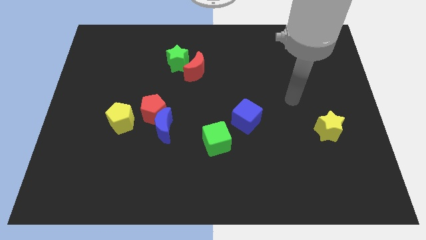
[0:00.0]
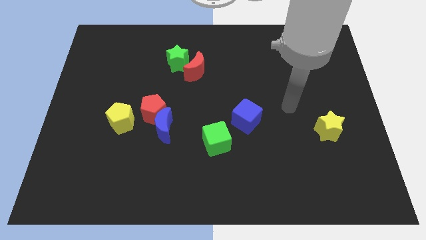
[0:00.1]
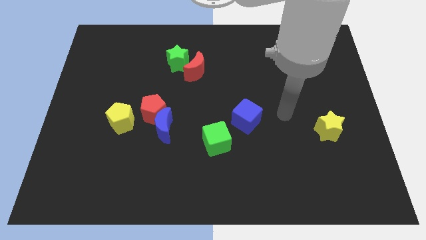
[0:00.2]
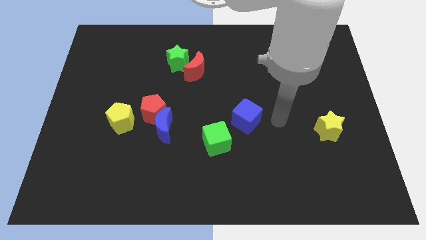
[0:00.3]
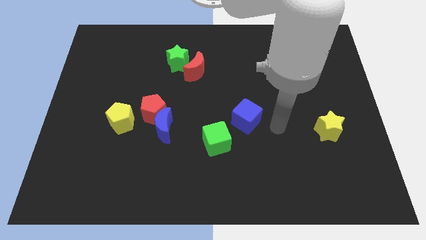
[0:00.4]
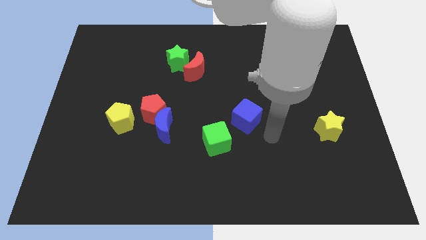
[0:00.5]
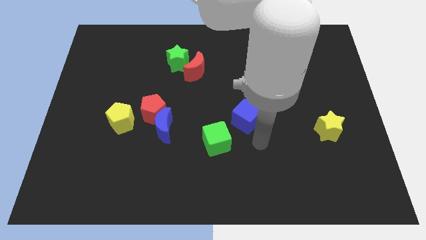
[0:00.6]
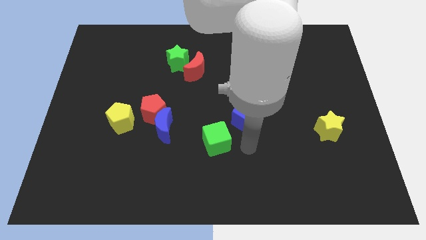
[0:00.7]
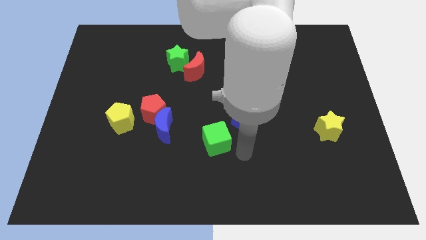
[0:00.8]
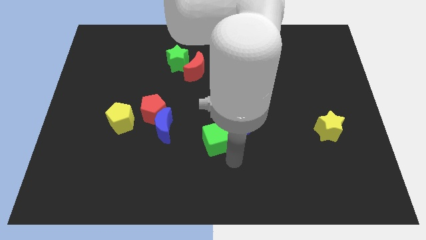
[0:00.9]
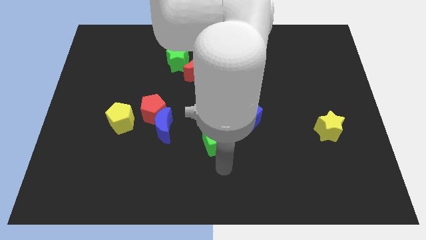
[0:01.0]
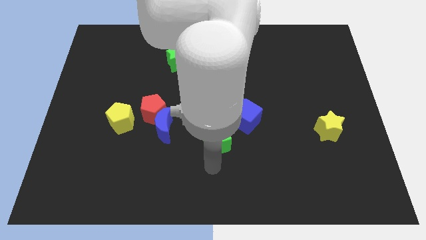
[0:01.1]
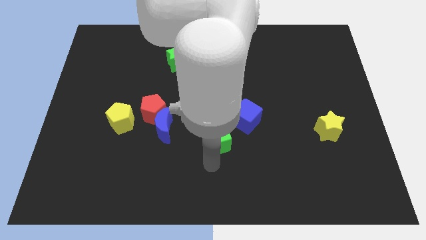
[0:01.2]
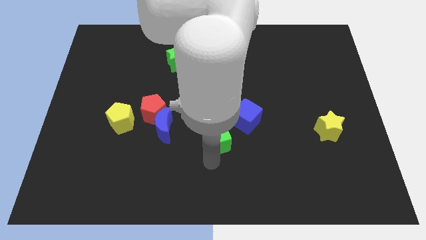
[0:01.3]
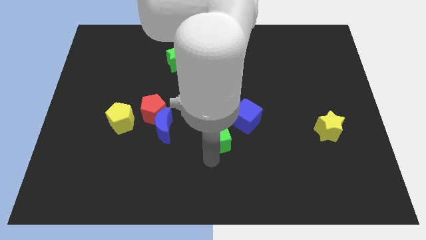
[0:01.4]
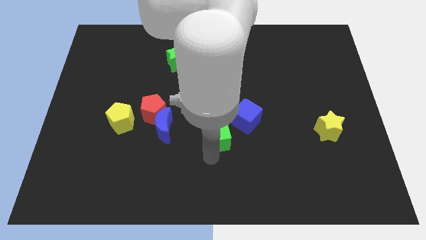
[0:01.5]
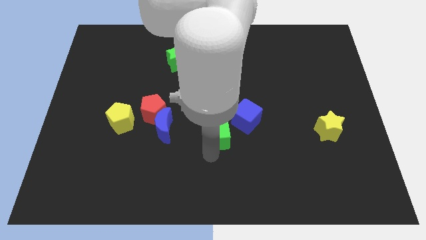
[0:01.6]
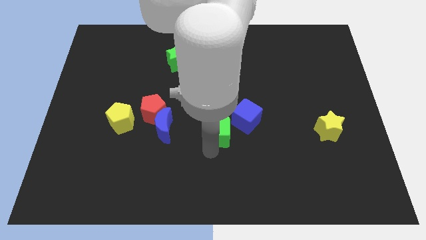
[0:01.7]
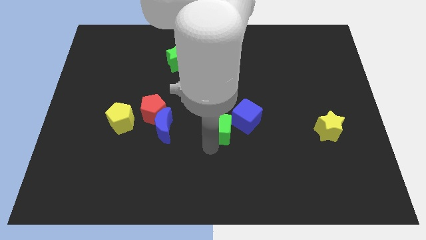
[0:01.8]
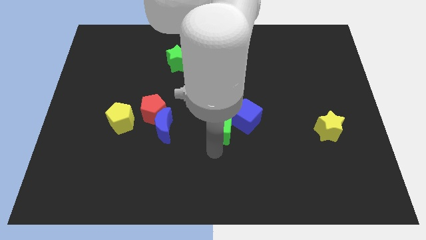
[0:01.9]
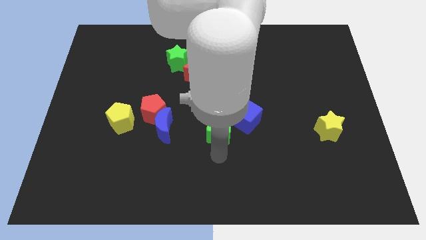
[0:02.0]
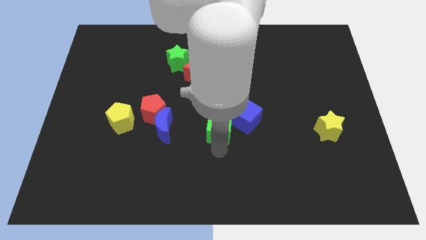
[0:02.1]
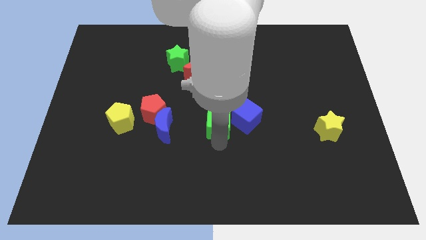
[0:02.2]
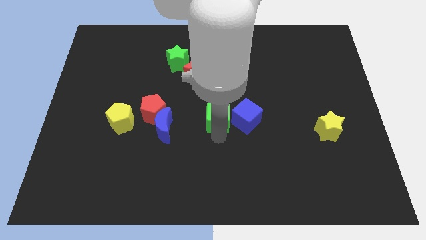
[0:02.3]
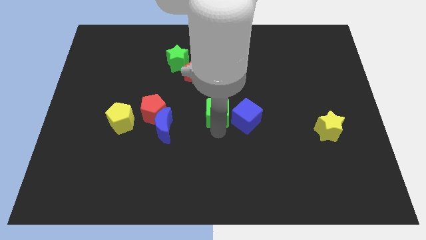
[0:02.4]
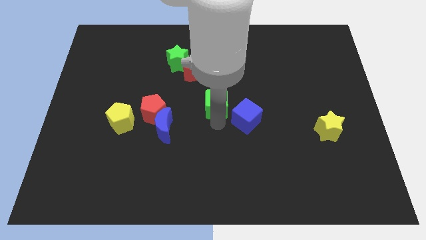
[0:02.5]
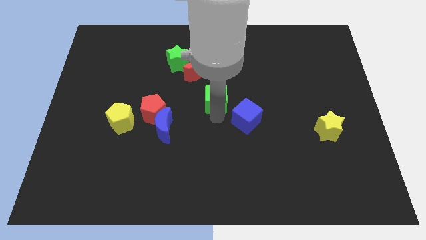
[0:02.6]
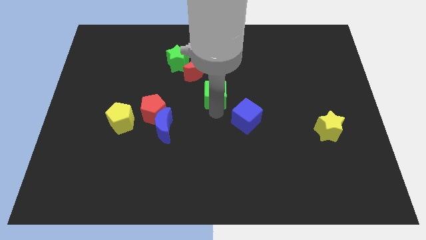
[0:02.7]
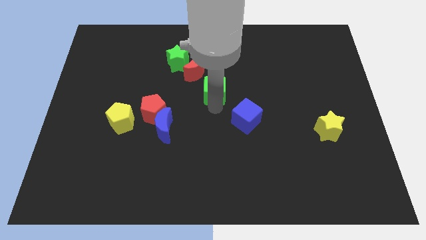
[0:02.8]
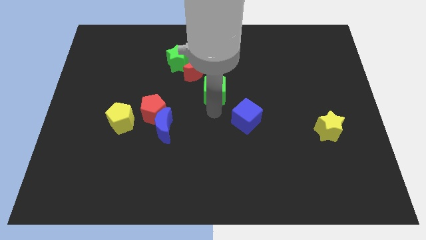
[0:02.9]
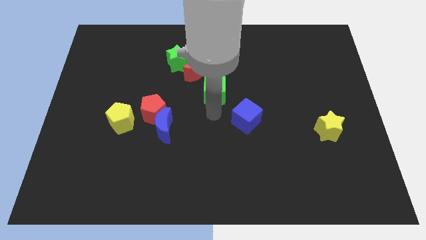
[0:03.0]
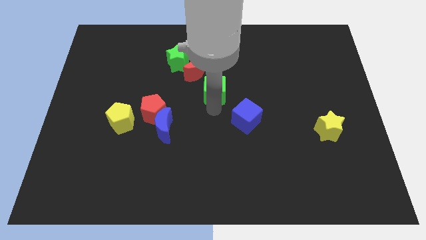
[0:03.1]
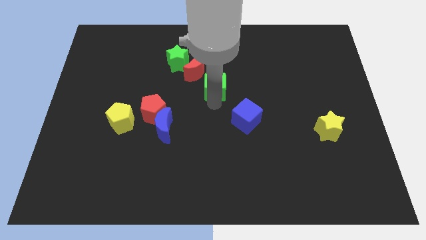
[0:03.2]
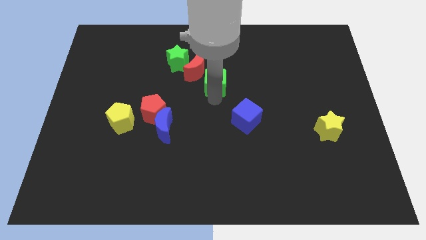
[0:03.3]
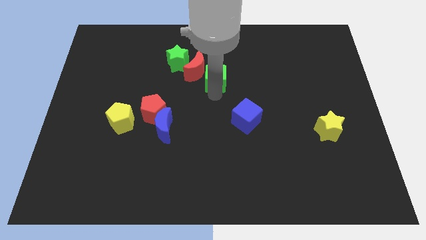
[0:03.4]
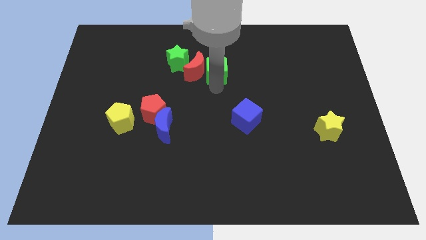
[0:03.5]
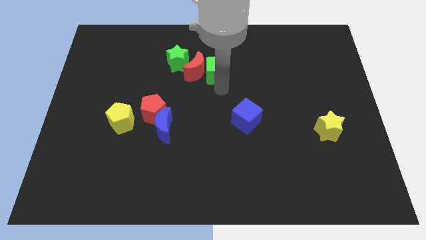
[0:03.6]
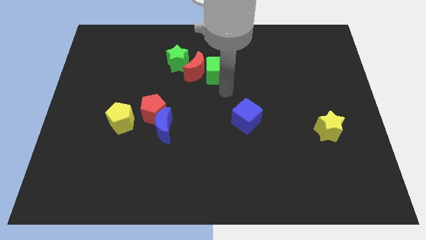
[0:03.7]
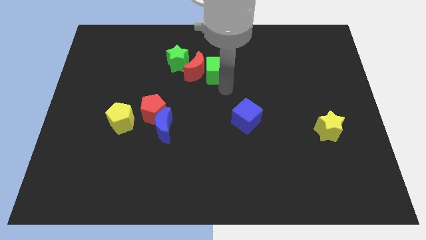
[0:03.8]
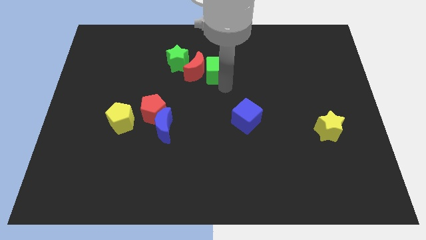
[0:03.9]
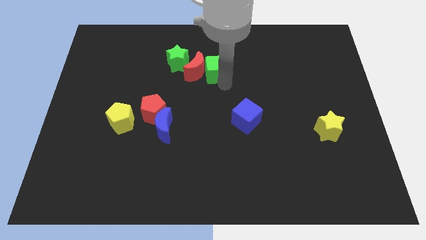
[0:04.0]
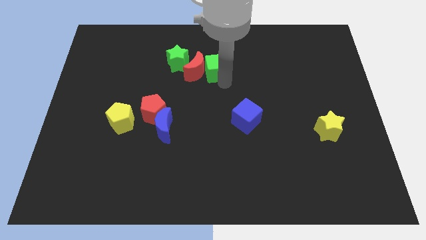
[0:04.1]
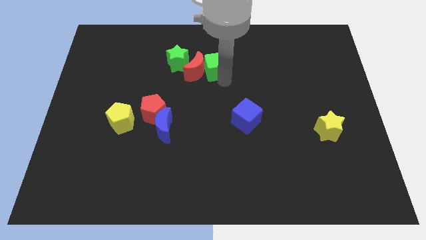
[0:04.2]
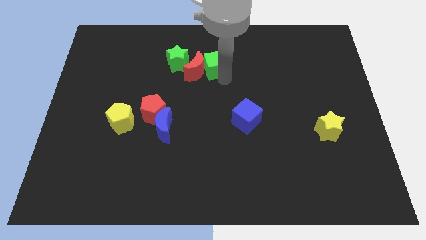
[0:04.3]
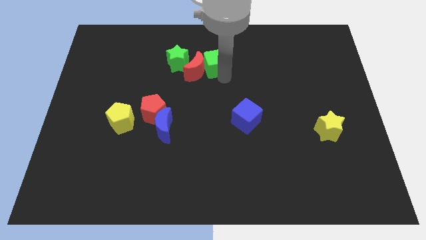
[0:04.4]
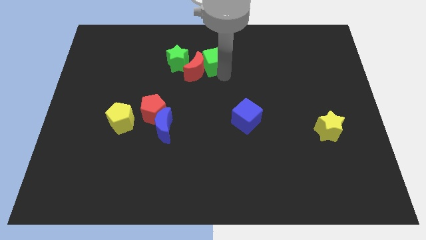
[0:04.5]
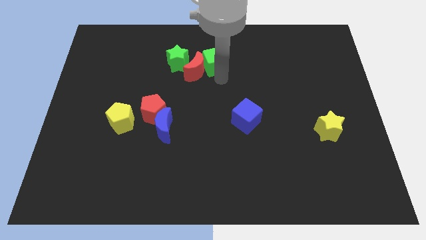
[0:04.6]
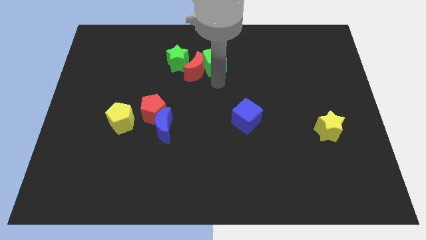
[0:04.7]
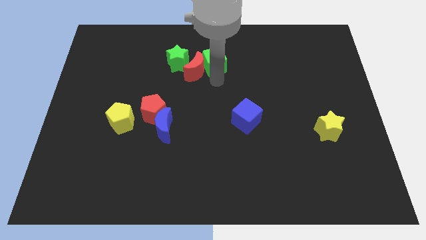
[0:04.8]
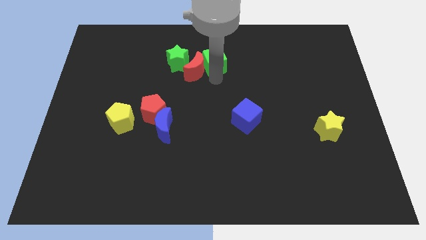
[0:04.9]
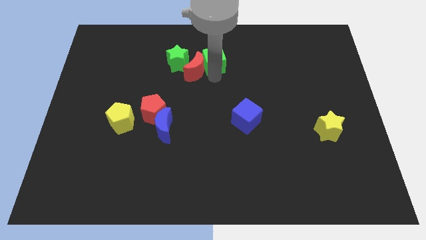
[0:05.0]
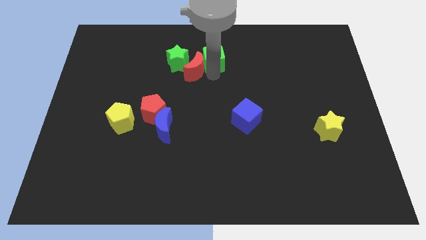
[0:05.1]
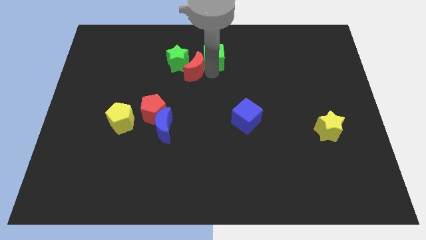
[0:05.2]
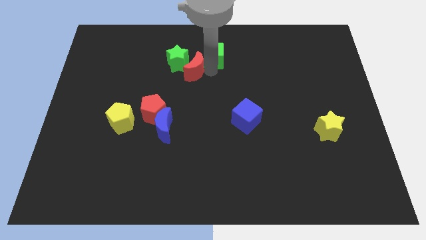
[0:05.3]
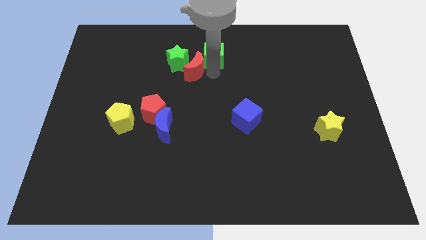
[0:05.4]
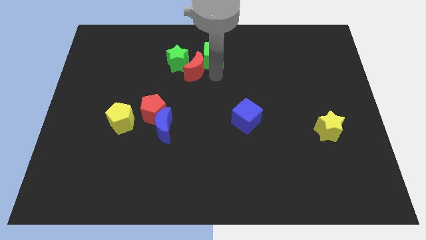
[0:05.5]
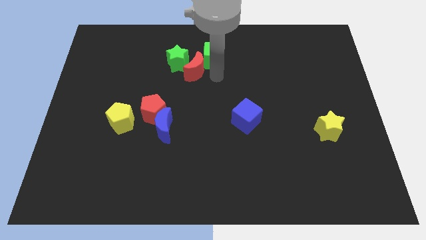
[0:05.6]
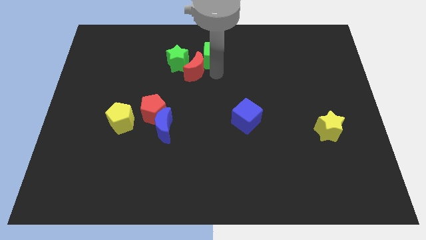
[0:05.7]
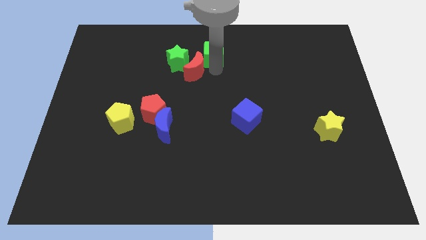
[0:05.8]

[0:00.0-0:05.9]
push the green cube to the top side

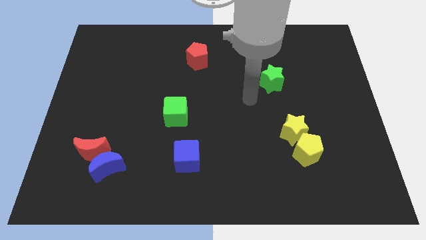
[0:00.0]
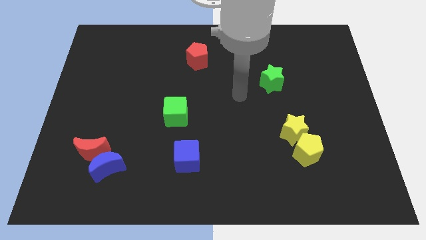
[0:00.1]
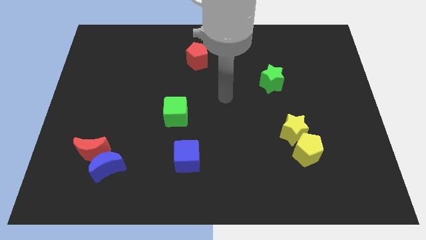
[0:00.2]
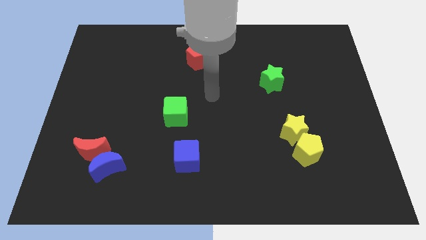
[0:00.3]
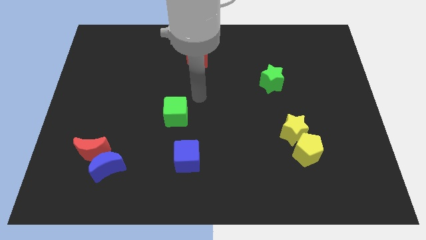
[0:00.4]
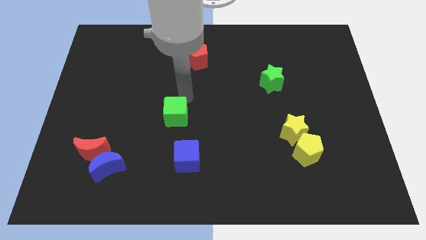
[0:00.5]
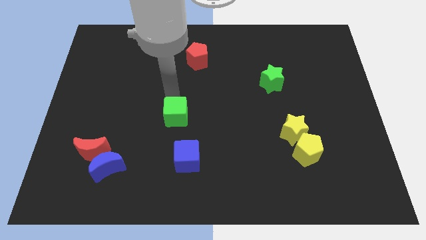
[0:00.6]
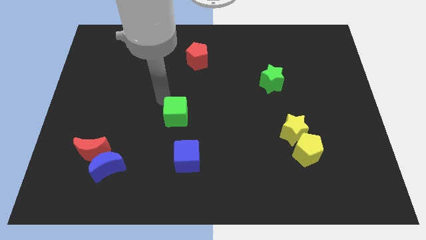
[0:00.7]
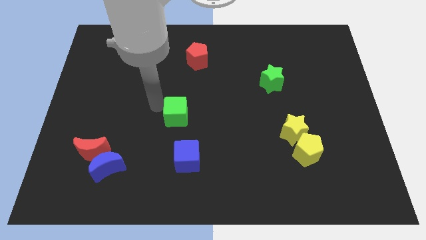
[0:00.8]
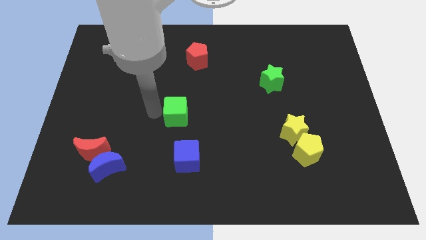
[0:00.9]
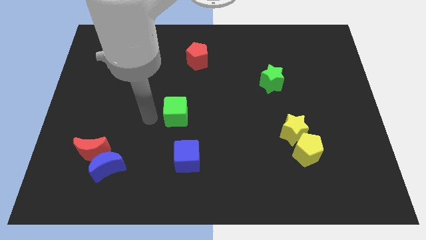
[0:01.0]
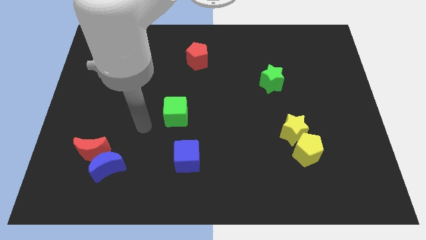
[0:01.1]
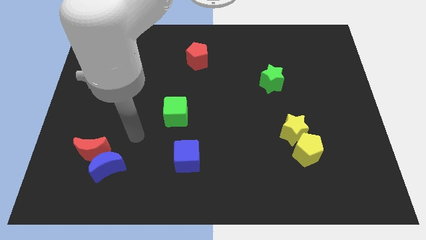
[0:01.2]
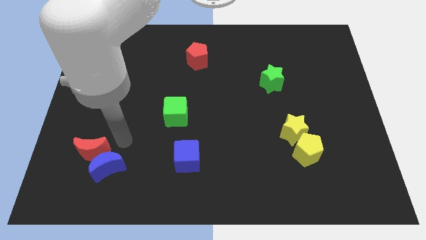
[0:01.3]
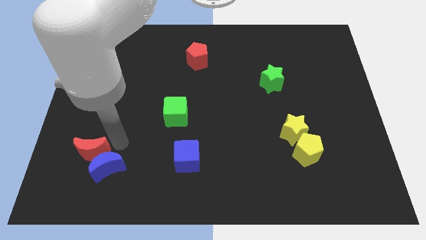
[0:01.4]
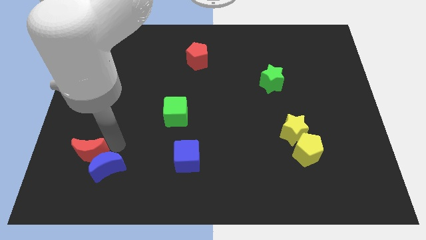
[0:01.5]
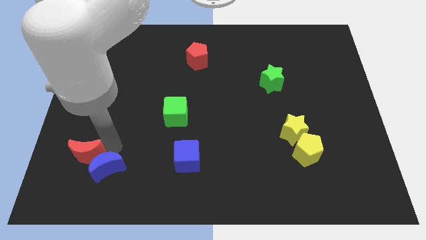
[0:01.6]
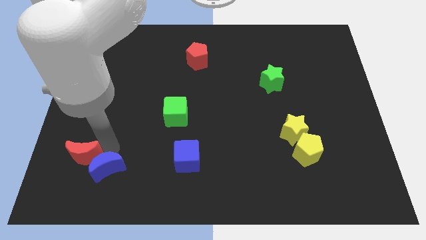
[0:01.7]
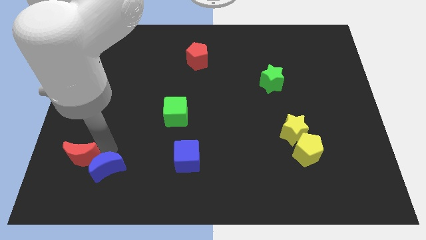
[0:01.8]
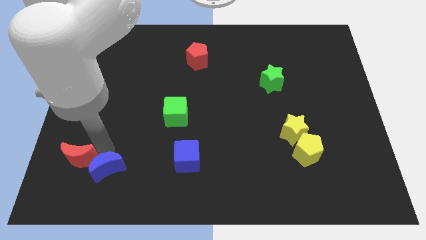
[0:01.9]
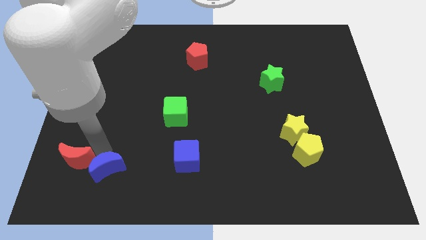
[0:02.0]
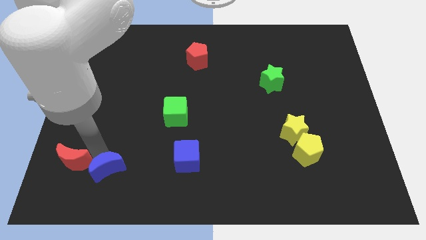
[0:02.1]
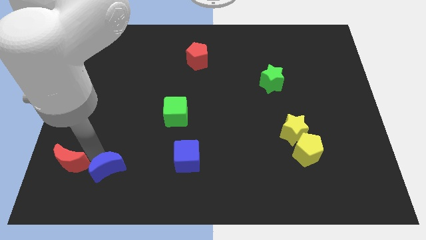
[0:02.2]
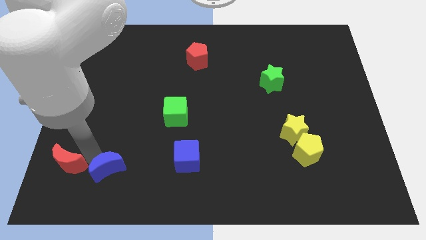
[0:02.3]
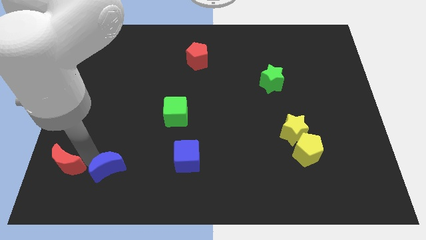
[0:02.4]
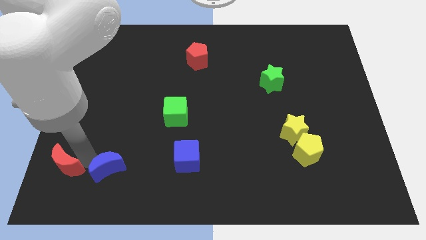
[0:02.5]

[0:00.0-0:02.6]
put the red moon to the bottom left
